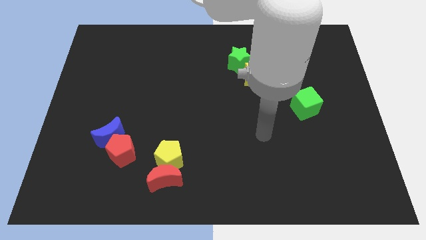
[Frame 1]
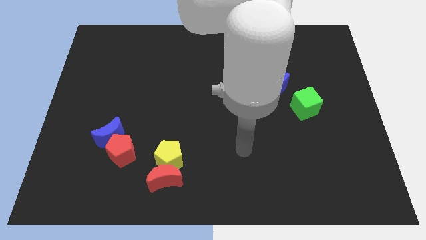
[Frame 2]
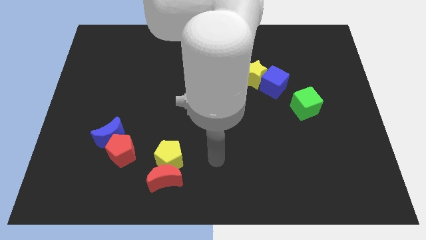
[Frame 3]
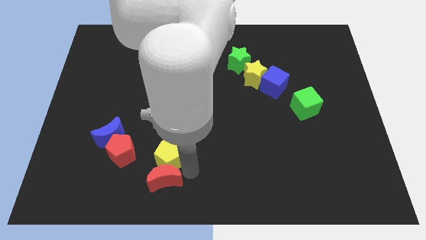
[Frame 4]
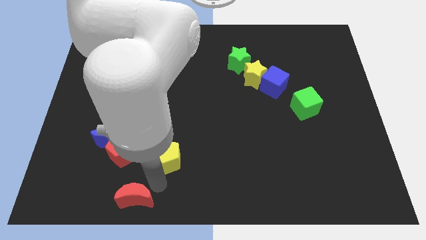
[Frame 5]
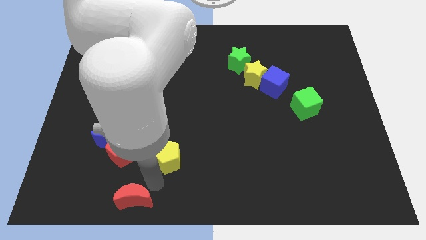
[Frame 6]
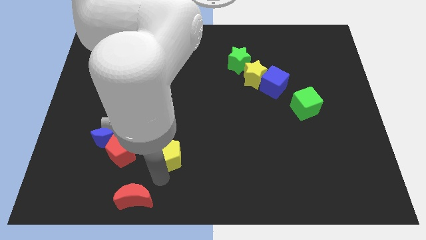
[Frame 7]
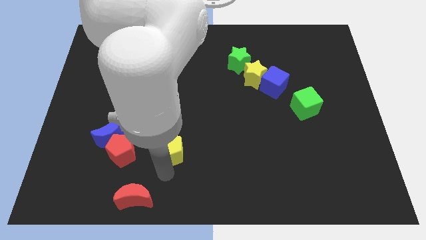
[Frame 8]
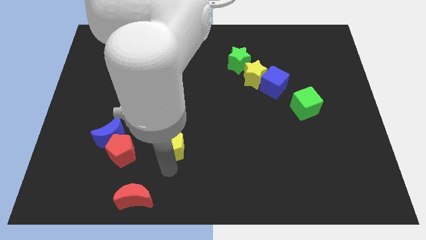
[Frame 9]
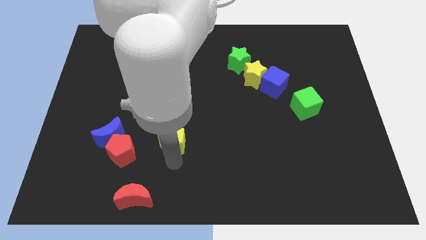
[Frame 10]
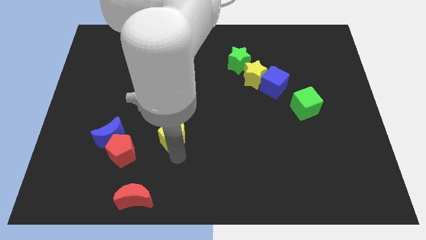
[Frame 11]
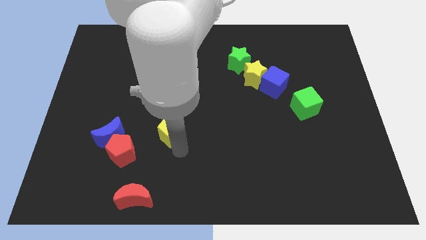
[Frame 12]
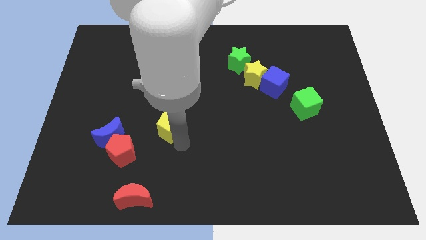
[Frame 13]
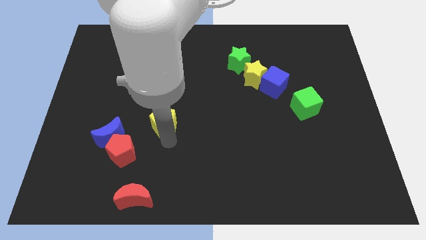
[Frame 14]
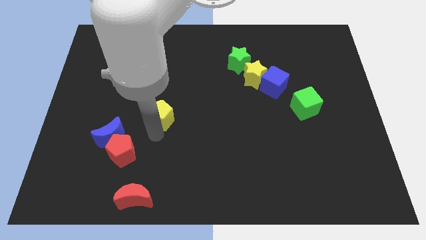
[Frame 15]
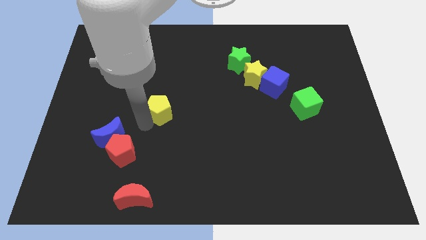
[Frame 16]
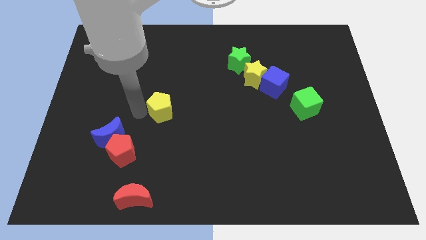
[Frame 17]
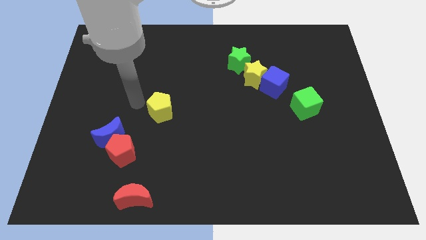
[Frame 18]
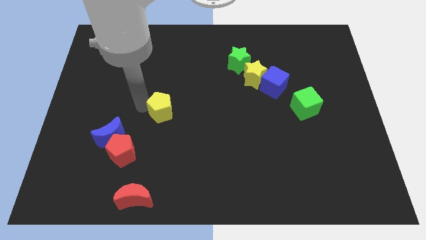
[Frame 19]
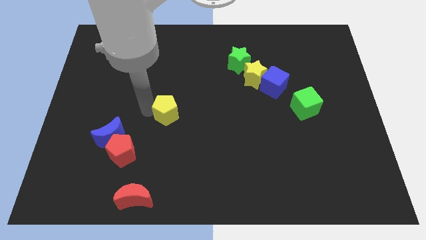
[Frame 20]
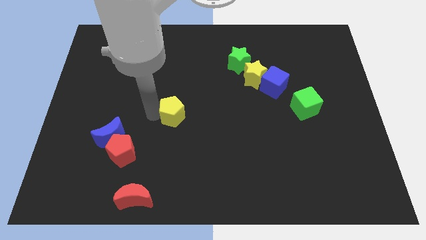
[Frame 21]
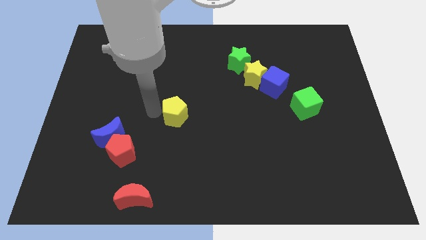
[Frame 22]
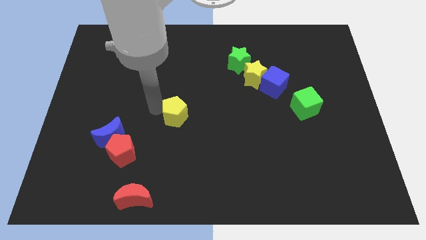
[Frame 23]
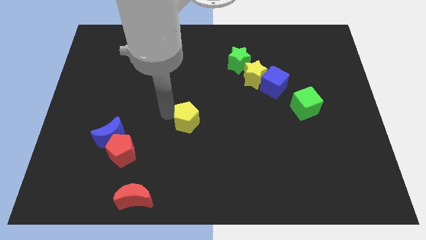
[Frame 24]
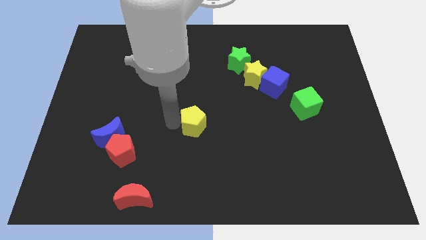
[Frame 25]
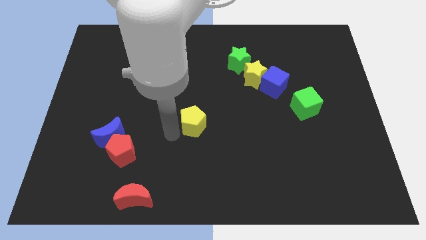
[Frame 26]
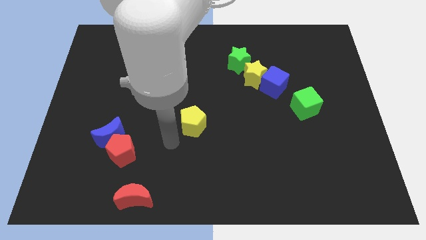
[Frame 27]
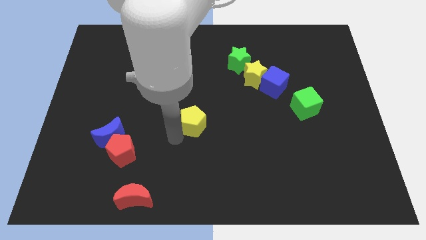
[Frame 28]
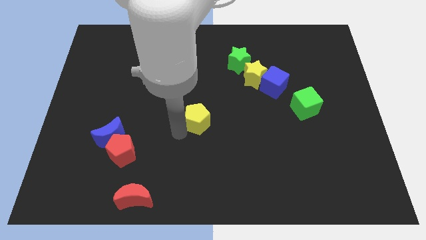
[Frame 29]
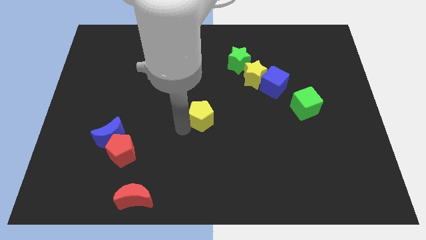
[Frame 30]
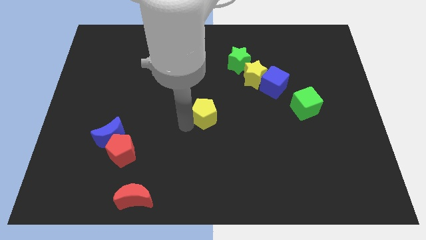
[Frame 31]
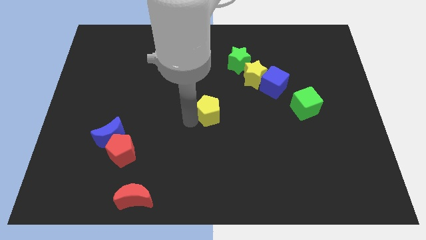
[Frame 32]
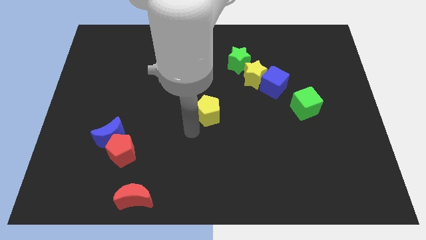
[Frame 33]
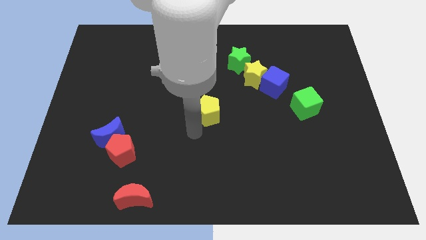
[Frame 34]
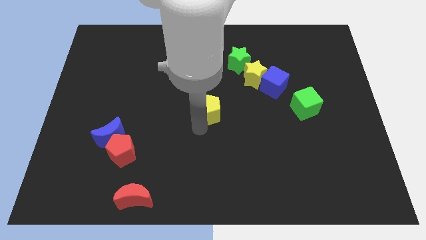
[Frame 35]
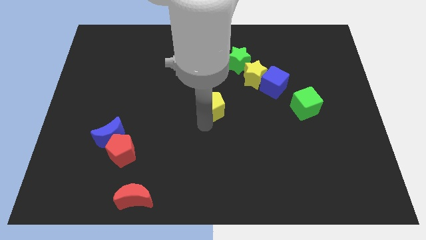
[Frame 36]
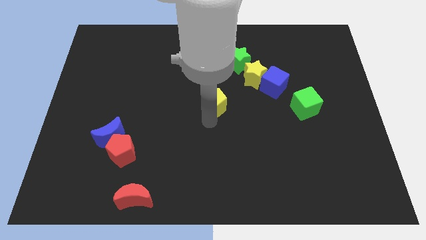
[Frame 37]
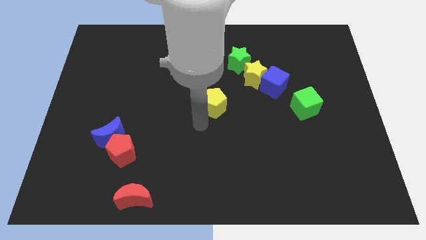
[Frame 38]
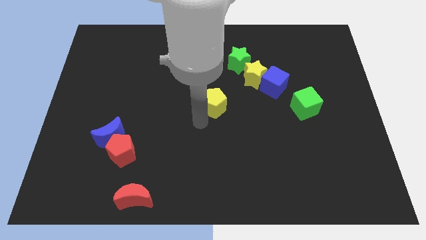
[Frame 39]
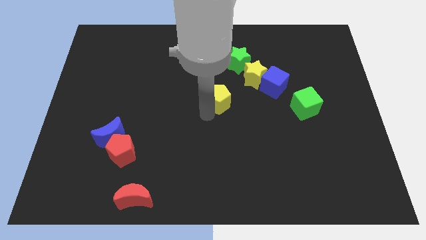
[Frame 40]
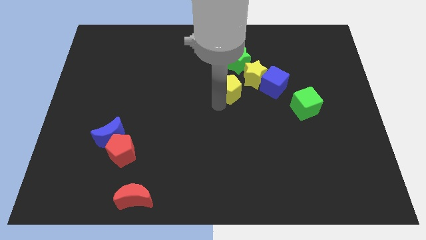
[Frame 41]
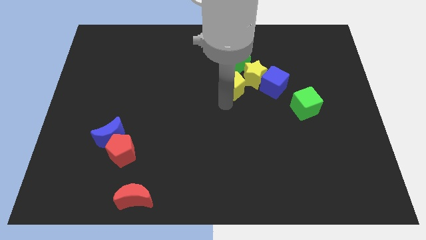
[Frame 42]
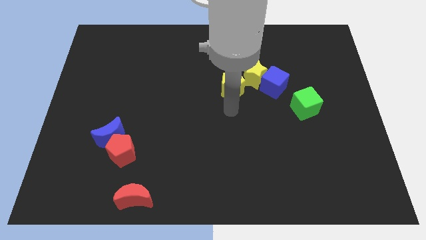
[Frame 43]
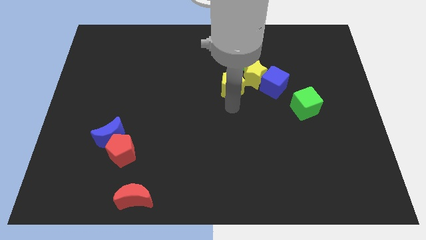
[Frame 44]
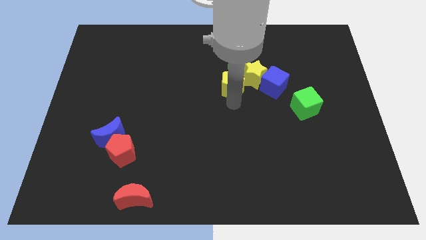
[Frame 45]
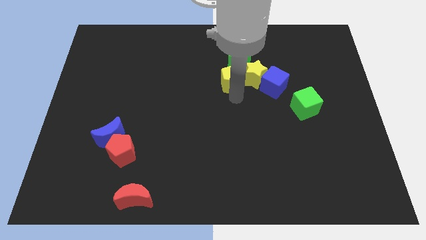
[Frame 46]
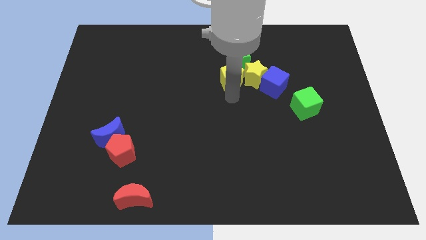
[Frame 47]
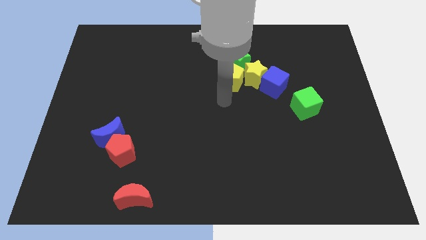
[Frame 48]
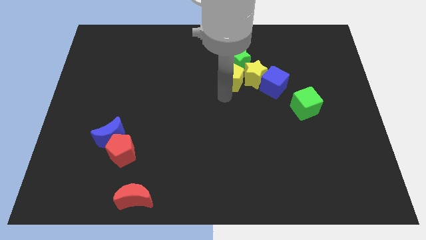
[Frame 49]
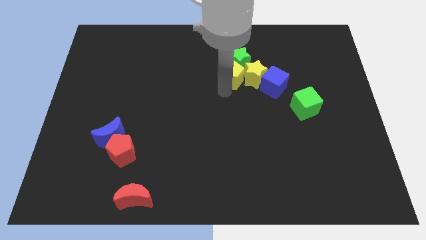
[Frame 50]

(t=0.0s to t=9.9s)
slide the yellow pentagon next to the green star

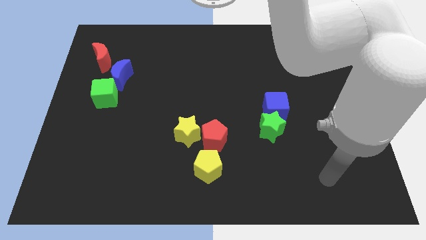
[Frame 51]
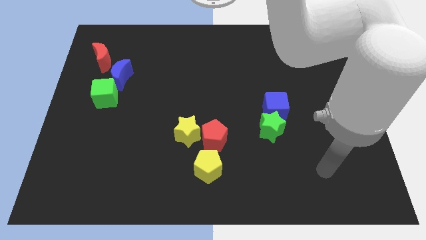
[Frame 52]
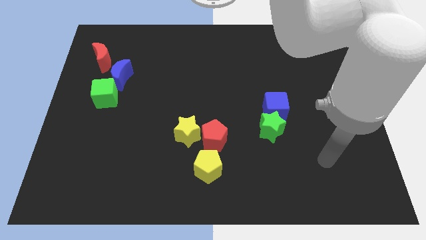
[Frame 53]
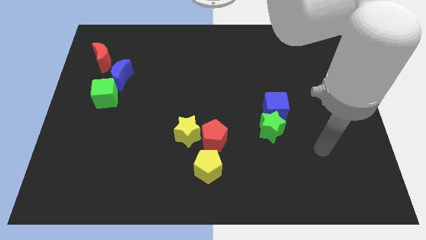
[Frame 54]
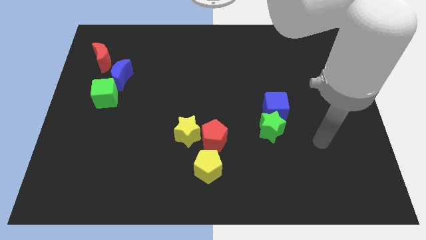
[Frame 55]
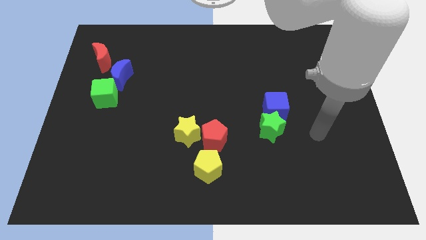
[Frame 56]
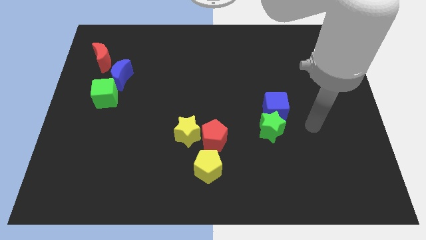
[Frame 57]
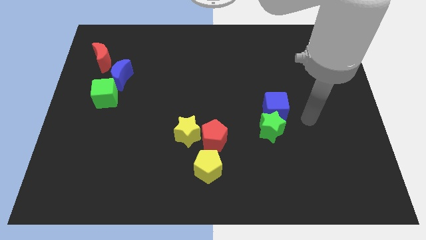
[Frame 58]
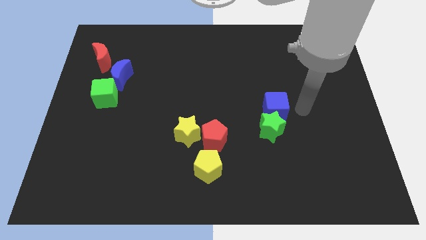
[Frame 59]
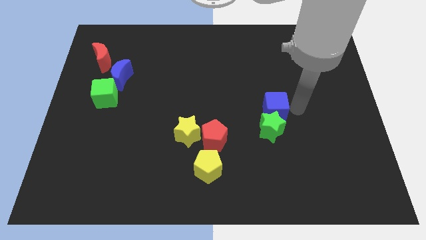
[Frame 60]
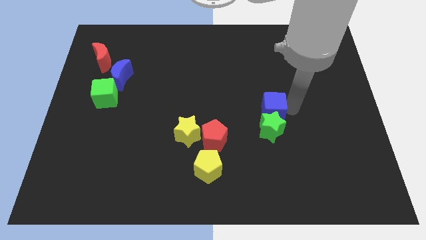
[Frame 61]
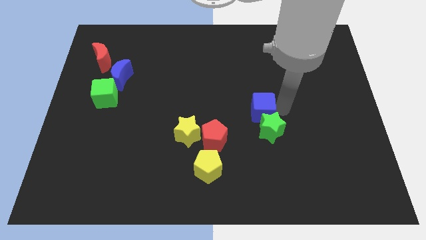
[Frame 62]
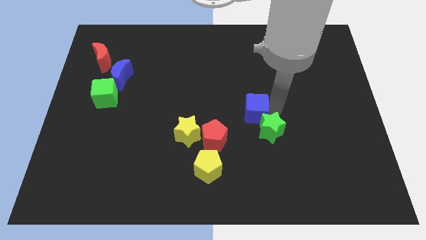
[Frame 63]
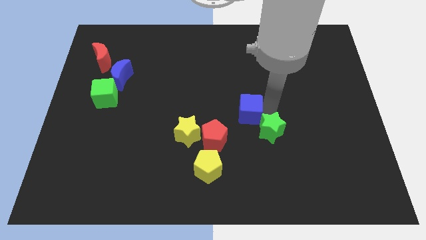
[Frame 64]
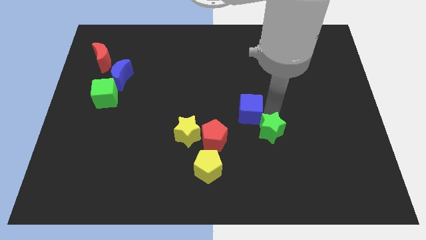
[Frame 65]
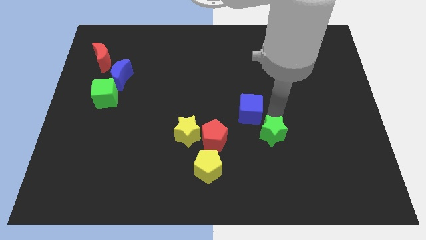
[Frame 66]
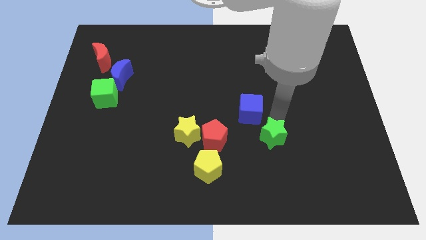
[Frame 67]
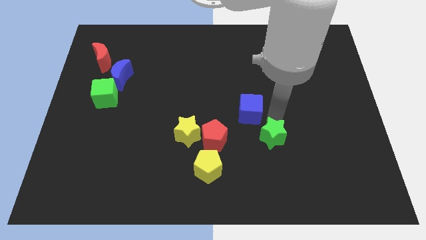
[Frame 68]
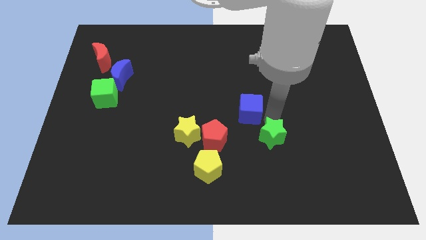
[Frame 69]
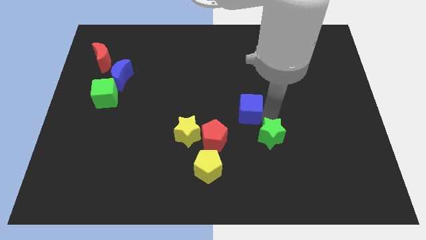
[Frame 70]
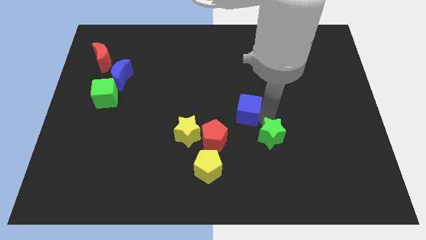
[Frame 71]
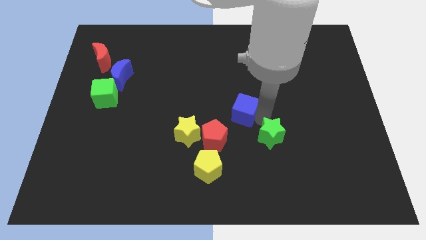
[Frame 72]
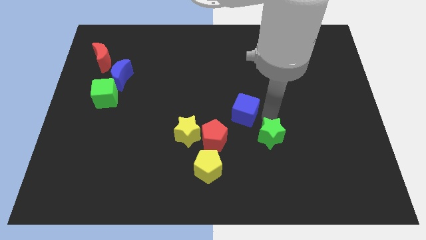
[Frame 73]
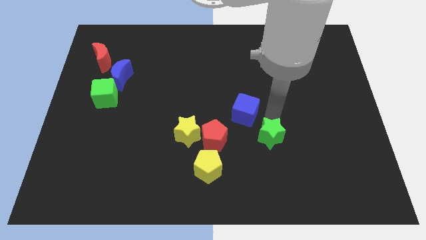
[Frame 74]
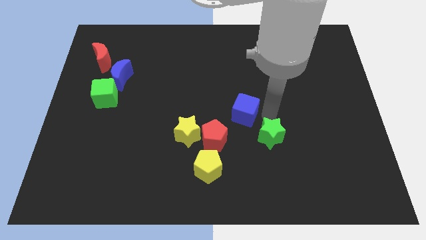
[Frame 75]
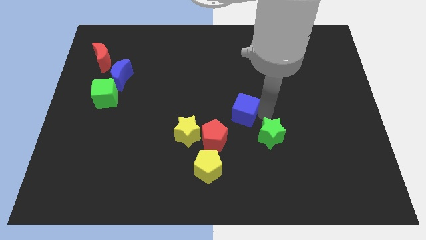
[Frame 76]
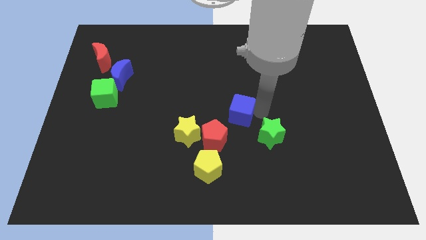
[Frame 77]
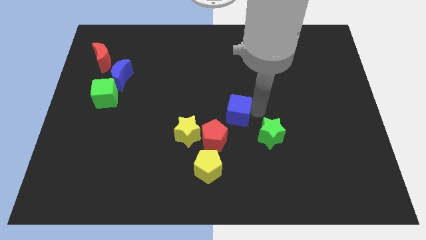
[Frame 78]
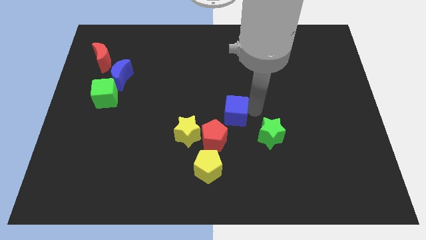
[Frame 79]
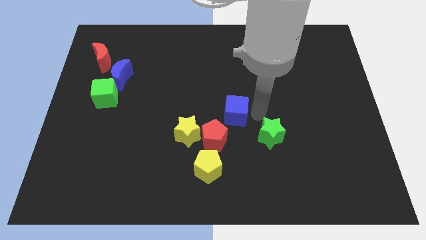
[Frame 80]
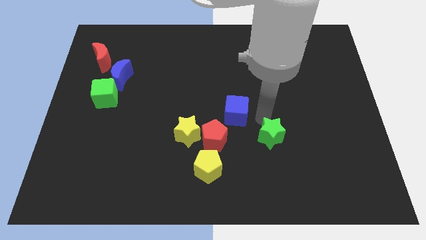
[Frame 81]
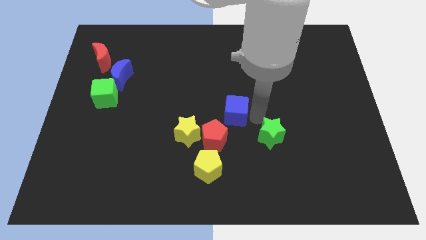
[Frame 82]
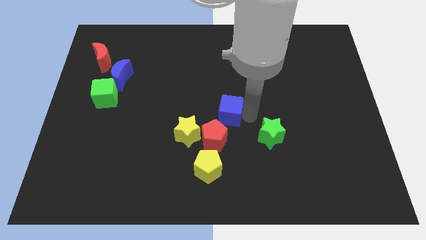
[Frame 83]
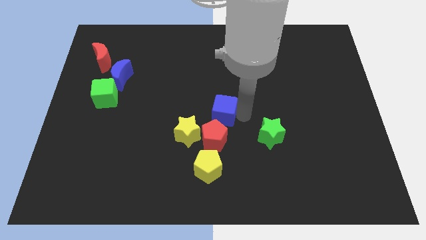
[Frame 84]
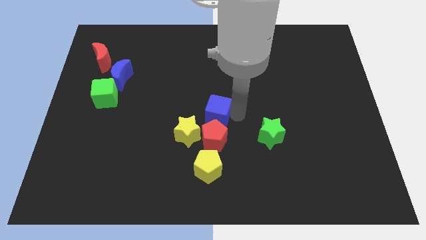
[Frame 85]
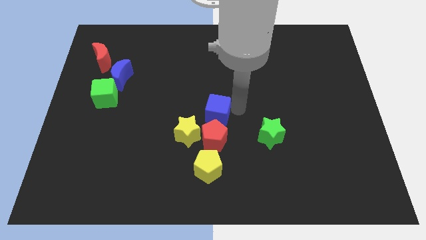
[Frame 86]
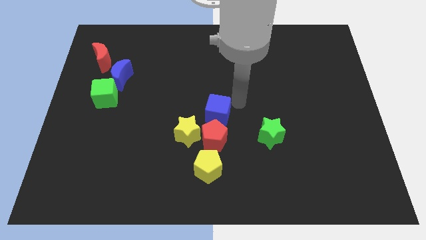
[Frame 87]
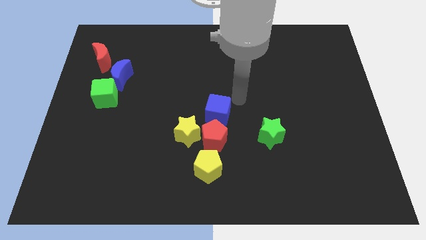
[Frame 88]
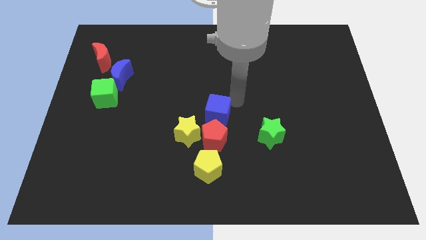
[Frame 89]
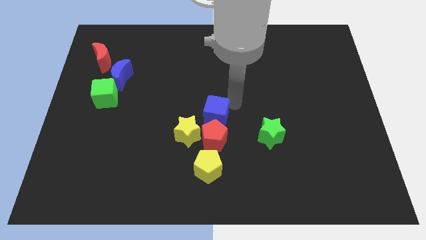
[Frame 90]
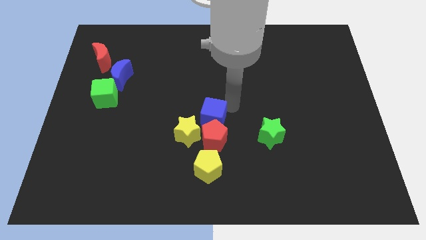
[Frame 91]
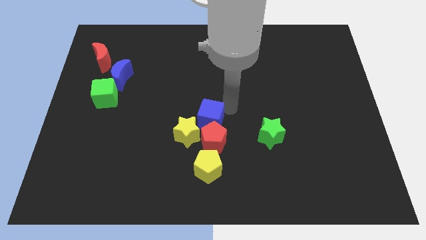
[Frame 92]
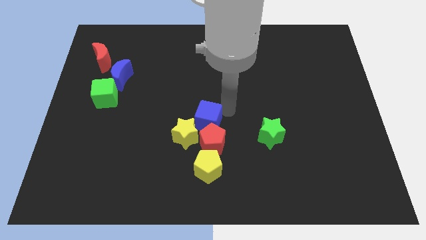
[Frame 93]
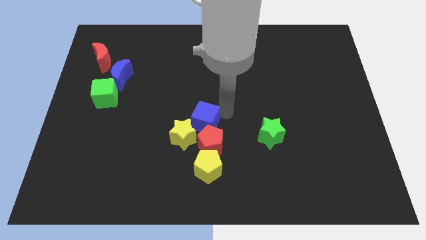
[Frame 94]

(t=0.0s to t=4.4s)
put the blue cube close to the yellow star
